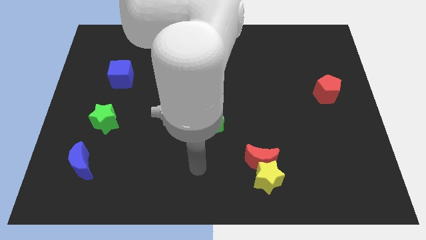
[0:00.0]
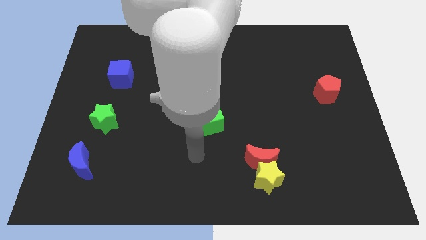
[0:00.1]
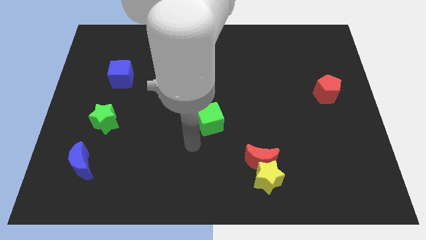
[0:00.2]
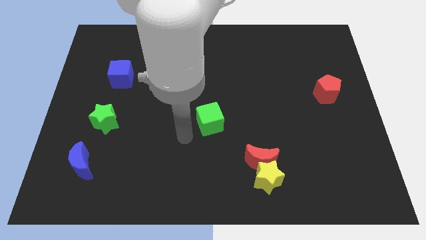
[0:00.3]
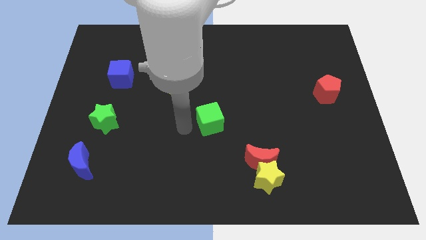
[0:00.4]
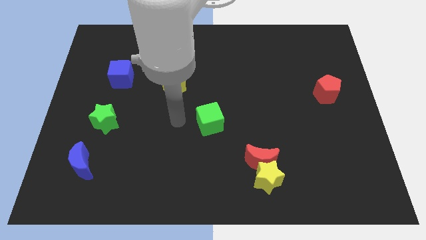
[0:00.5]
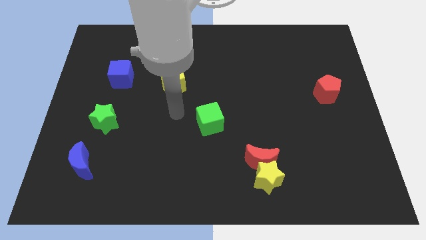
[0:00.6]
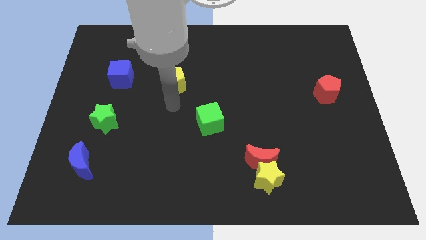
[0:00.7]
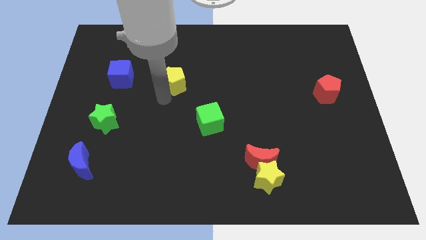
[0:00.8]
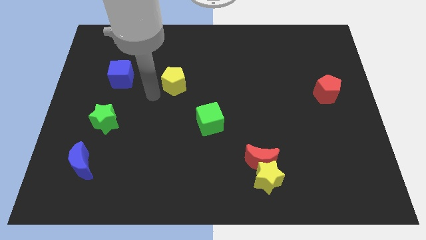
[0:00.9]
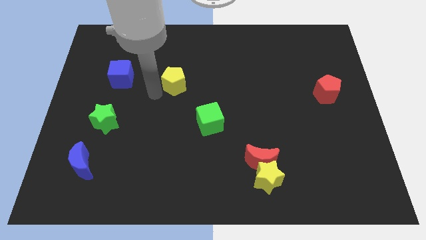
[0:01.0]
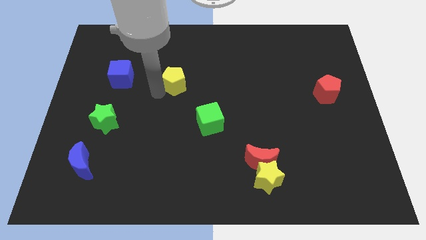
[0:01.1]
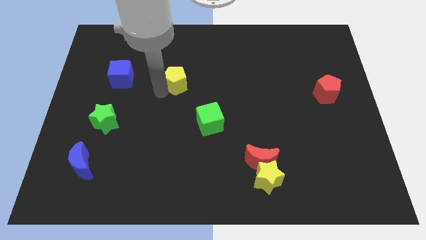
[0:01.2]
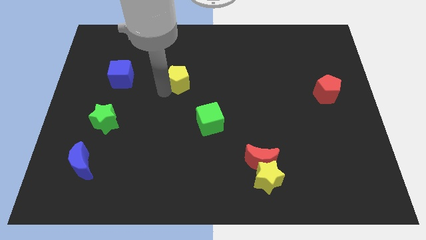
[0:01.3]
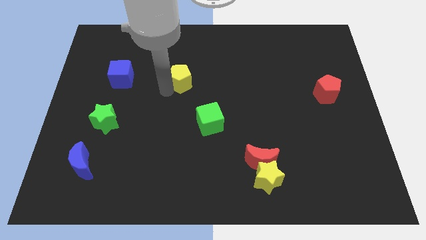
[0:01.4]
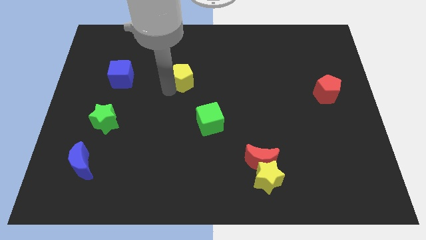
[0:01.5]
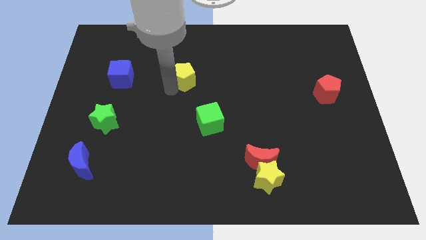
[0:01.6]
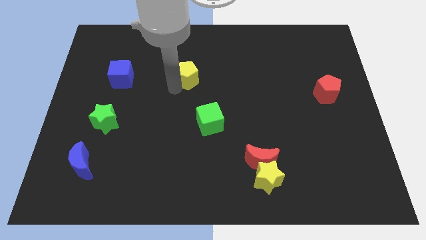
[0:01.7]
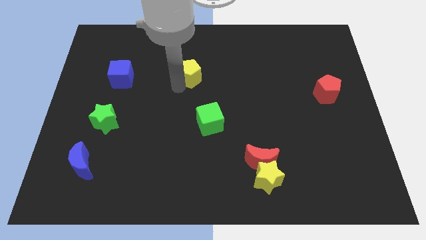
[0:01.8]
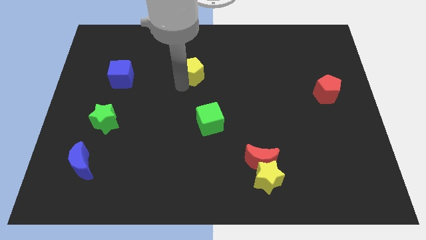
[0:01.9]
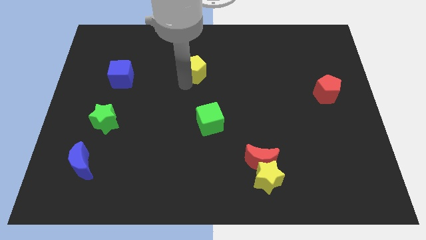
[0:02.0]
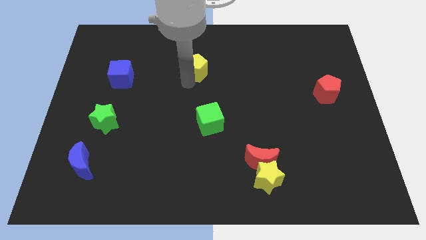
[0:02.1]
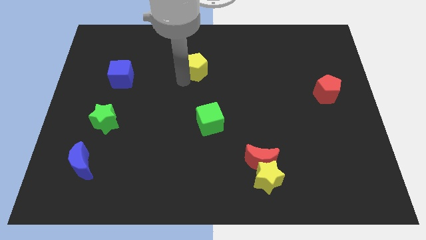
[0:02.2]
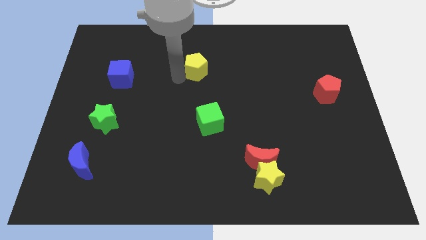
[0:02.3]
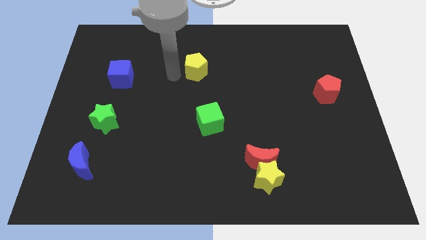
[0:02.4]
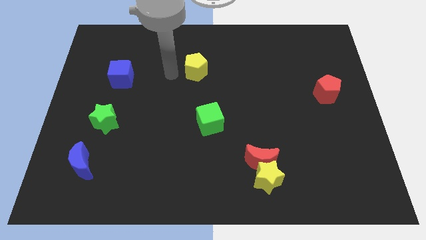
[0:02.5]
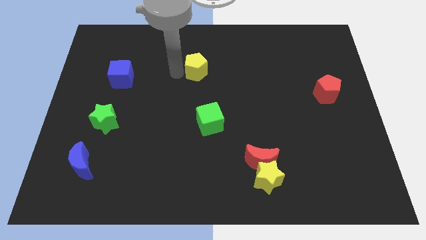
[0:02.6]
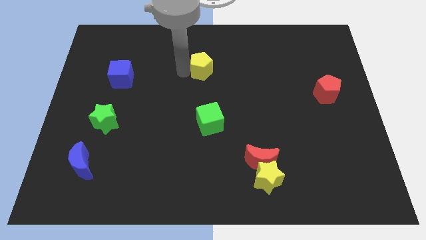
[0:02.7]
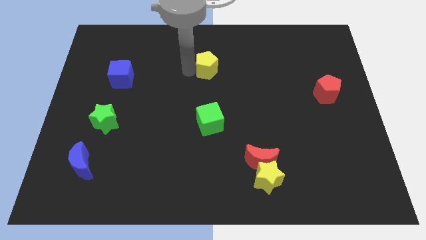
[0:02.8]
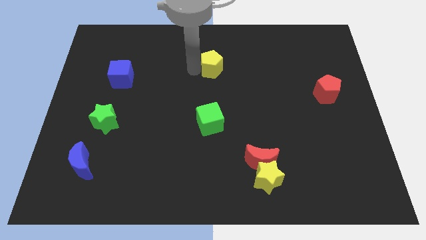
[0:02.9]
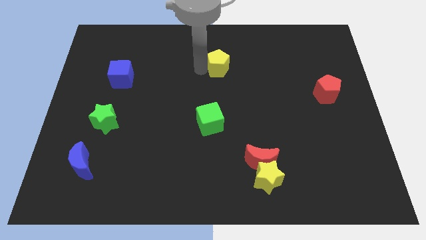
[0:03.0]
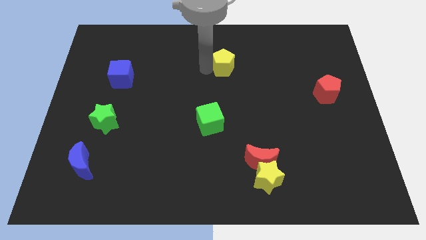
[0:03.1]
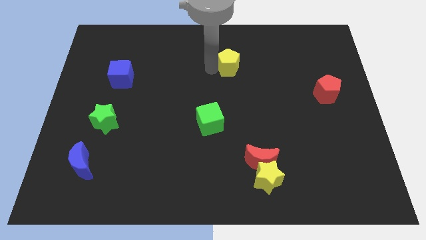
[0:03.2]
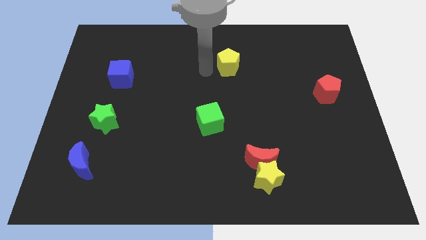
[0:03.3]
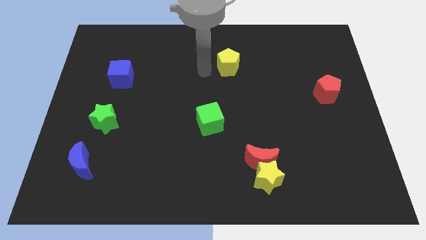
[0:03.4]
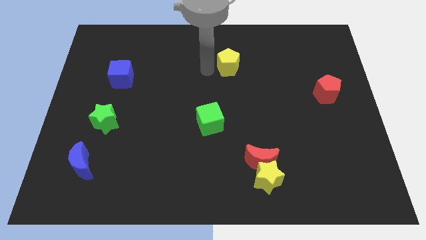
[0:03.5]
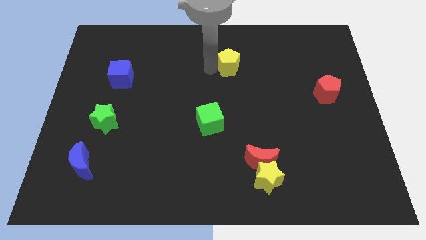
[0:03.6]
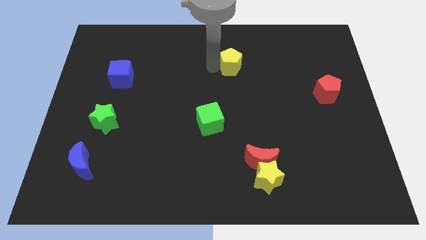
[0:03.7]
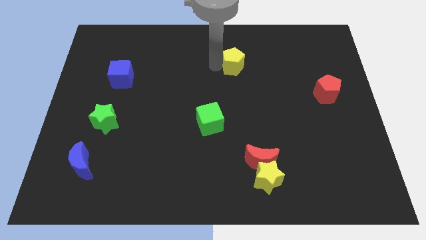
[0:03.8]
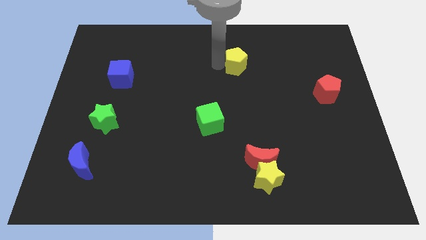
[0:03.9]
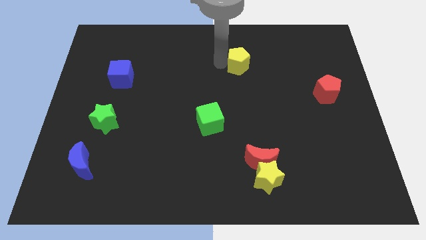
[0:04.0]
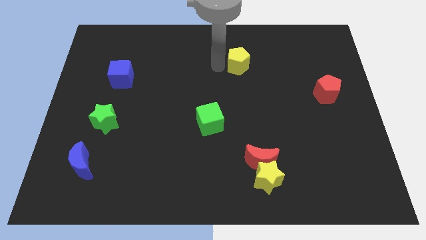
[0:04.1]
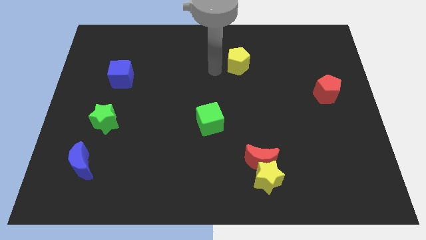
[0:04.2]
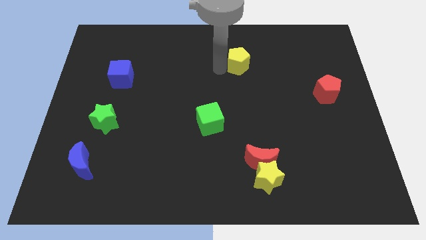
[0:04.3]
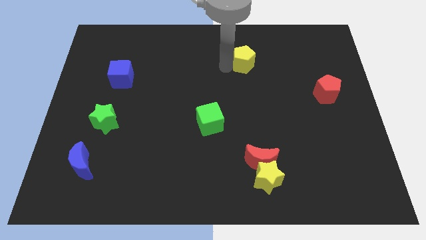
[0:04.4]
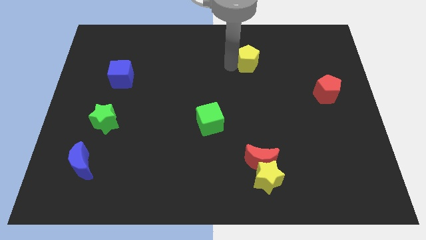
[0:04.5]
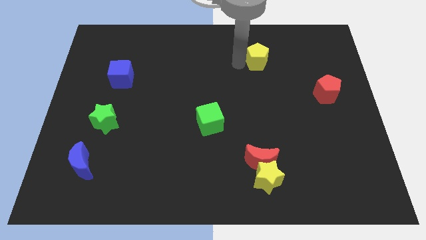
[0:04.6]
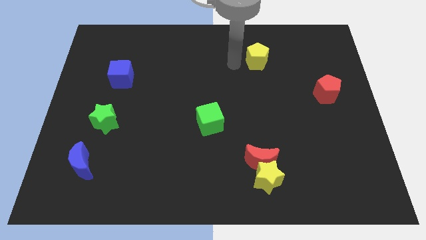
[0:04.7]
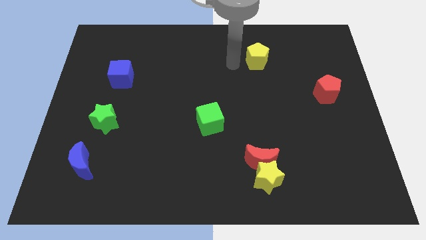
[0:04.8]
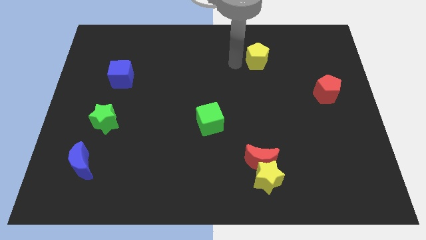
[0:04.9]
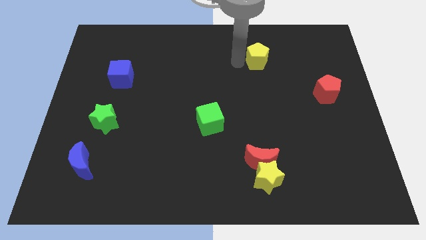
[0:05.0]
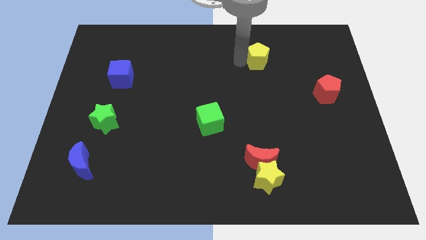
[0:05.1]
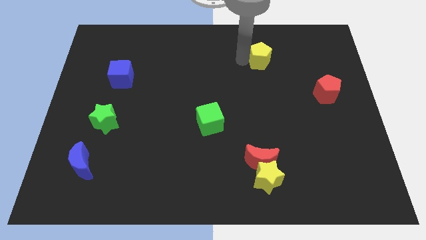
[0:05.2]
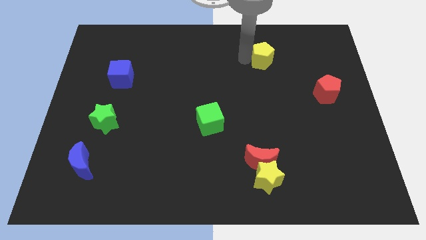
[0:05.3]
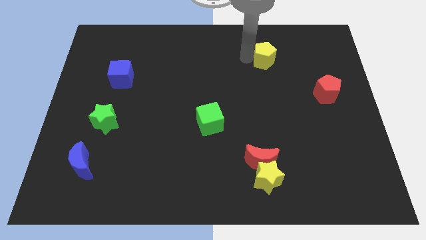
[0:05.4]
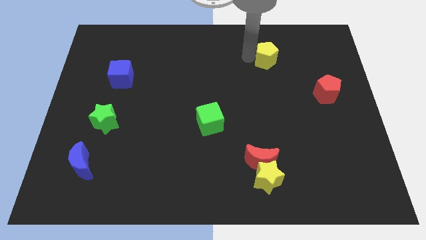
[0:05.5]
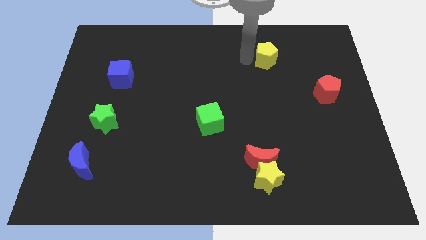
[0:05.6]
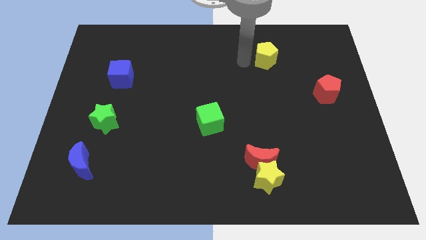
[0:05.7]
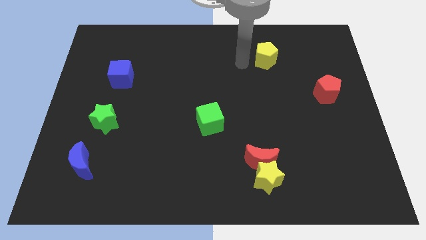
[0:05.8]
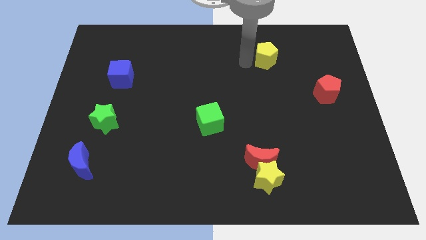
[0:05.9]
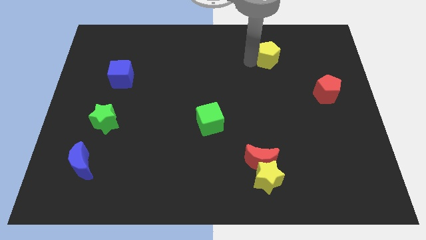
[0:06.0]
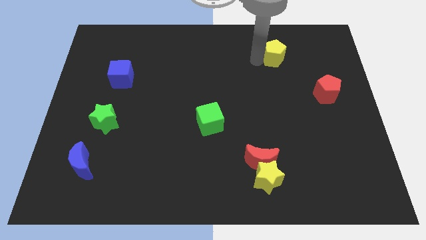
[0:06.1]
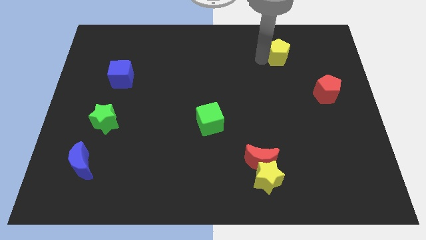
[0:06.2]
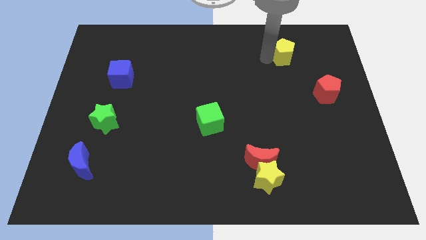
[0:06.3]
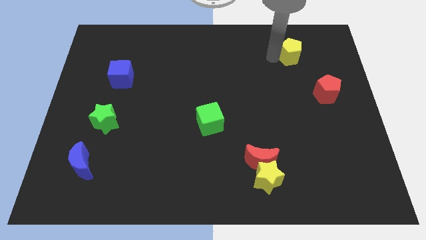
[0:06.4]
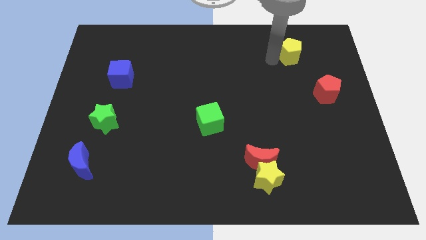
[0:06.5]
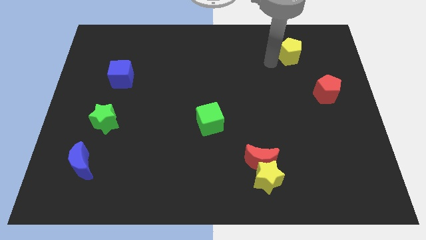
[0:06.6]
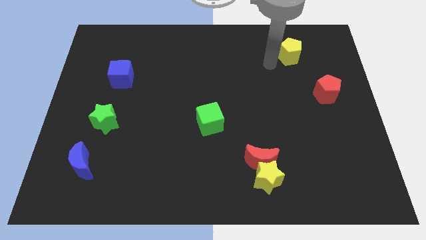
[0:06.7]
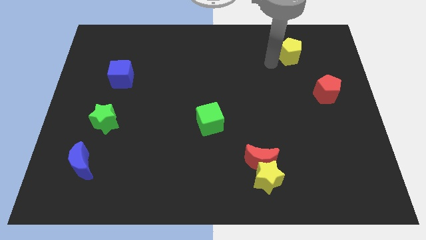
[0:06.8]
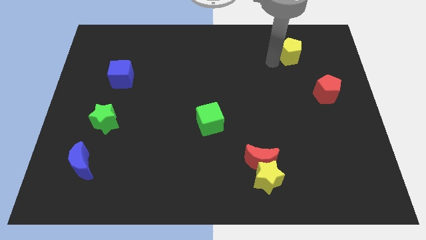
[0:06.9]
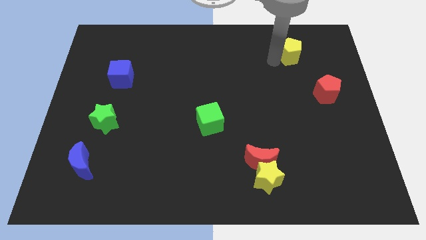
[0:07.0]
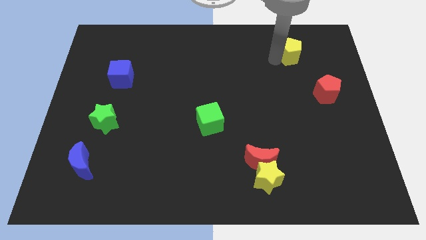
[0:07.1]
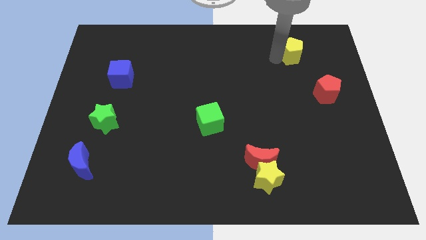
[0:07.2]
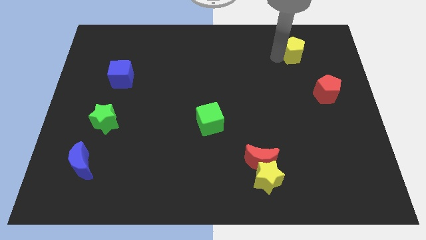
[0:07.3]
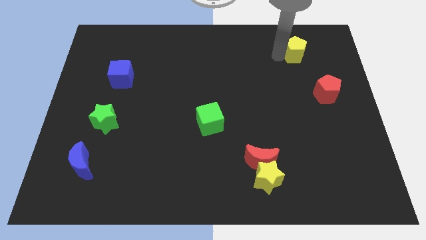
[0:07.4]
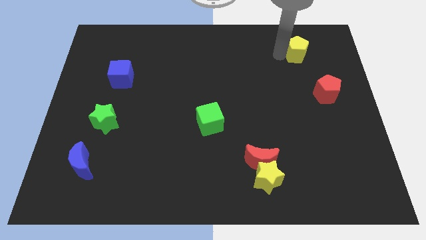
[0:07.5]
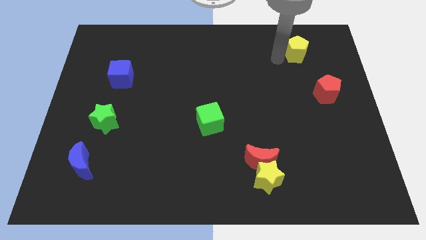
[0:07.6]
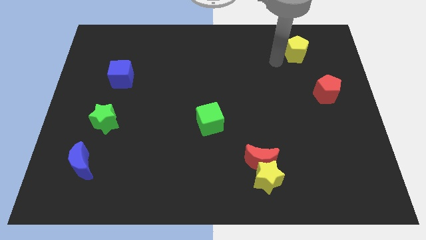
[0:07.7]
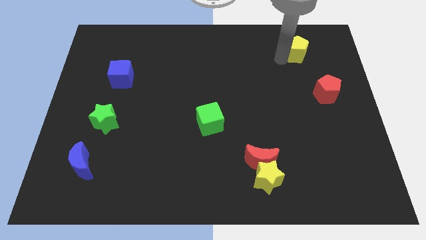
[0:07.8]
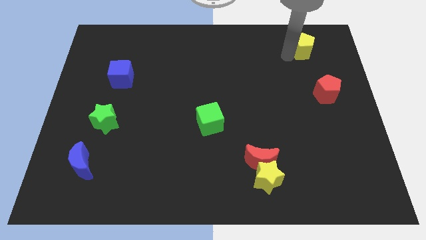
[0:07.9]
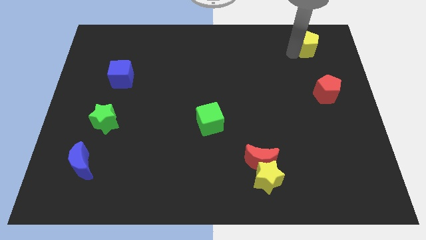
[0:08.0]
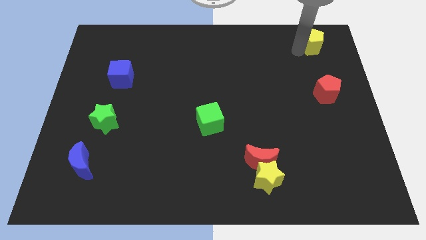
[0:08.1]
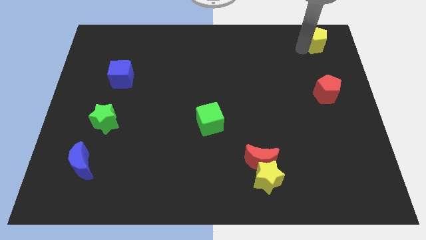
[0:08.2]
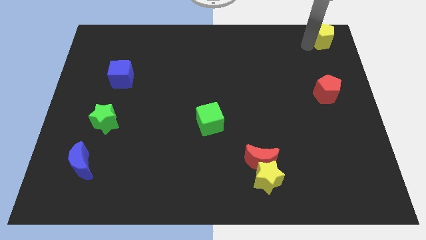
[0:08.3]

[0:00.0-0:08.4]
push the yellow pentagon to the top right of the board
